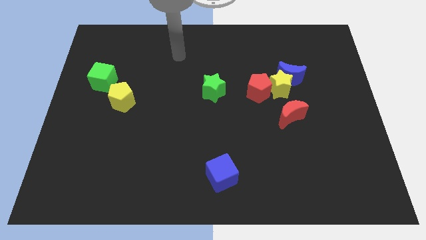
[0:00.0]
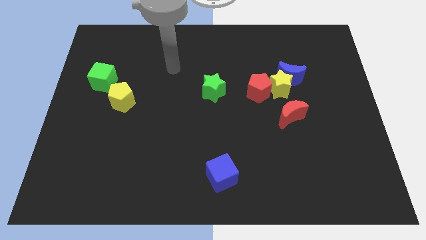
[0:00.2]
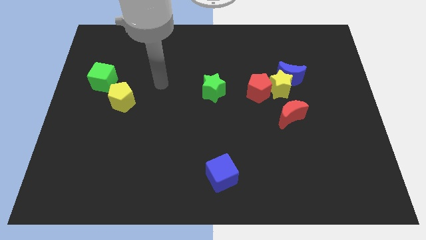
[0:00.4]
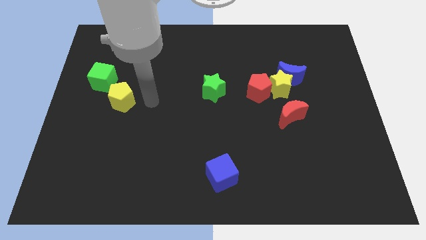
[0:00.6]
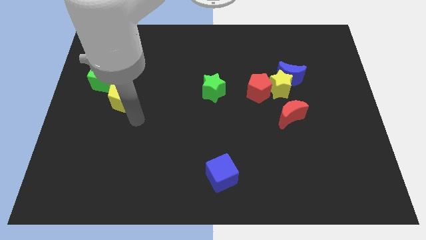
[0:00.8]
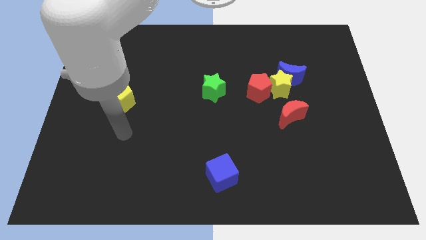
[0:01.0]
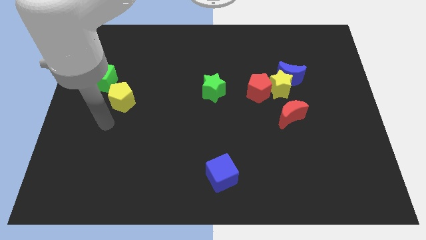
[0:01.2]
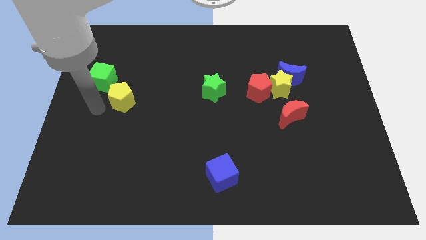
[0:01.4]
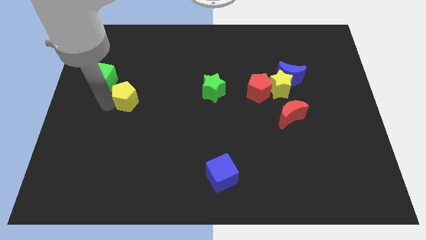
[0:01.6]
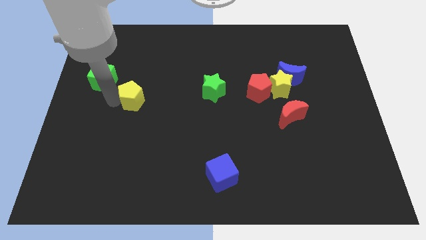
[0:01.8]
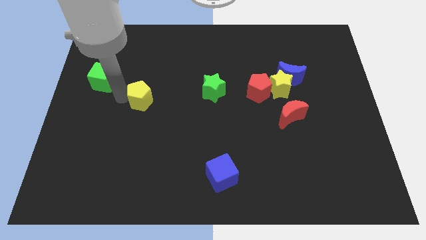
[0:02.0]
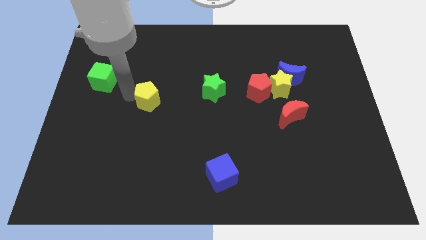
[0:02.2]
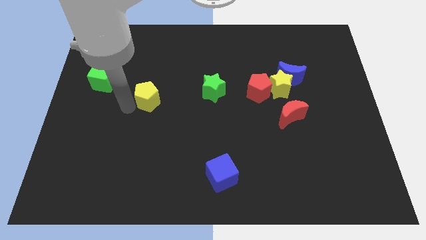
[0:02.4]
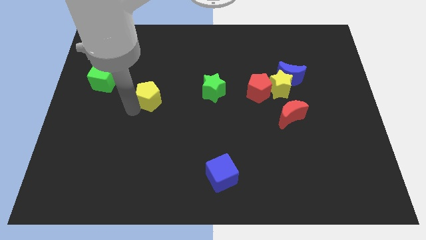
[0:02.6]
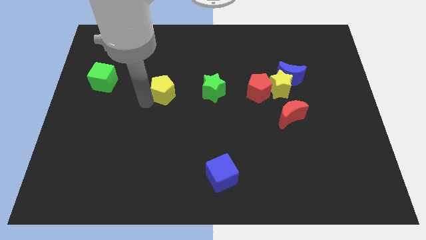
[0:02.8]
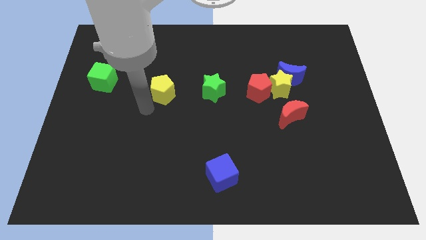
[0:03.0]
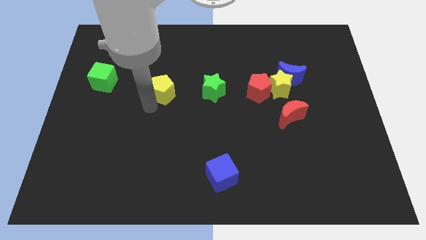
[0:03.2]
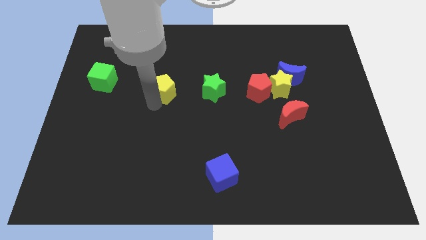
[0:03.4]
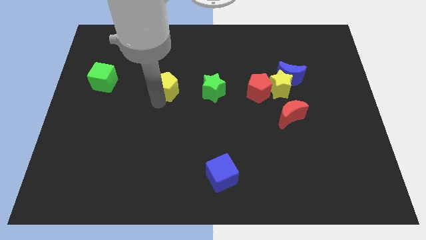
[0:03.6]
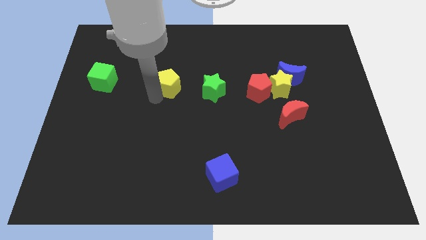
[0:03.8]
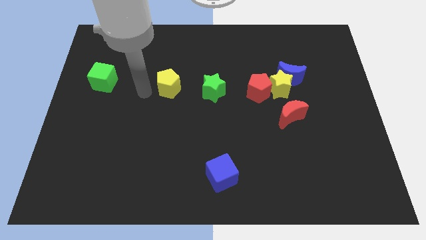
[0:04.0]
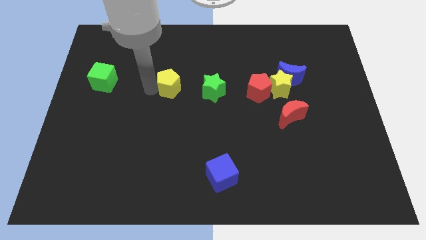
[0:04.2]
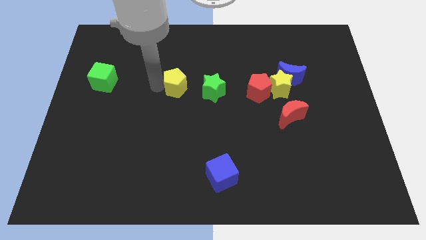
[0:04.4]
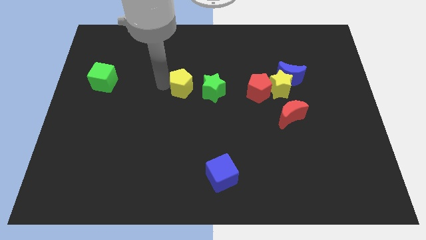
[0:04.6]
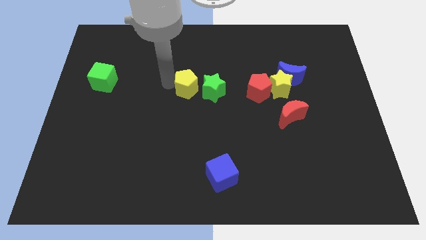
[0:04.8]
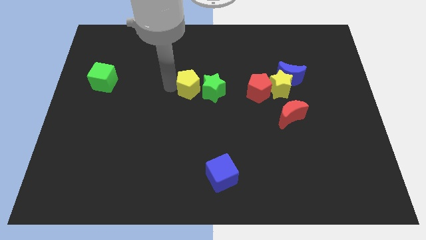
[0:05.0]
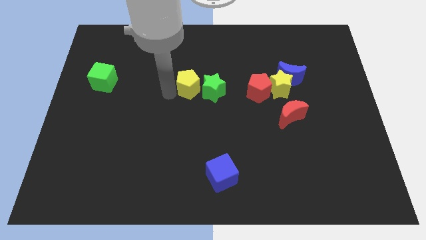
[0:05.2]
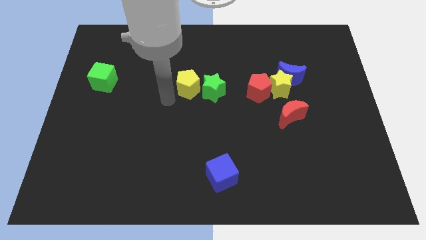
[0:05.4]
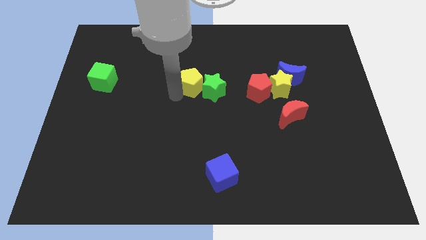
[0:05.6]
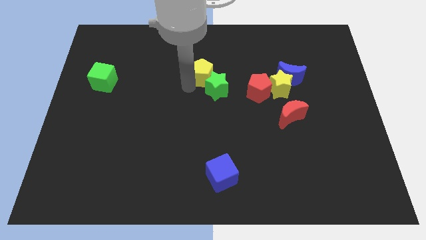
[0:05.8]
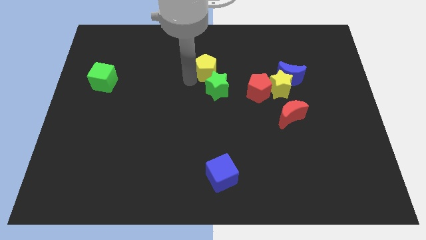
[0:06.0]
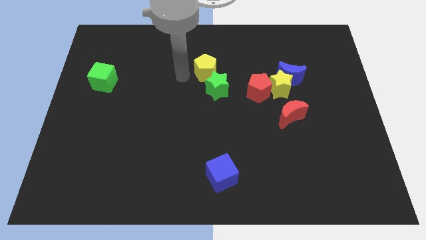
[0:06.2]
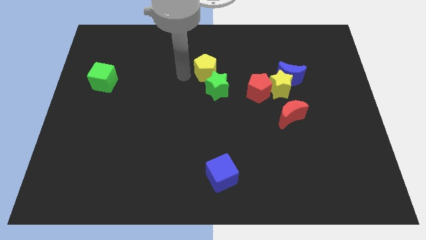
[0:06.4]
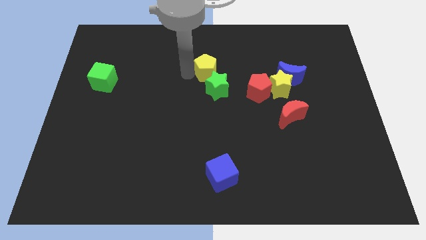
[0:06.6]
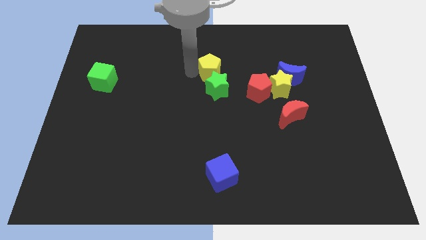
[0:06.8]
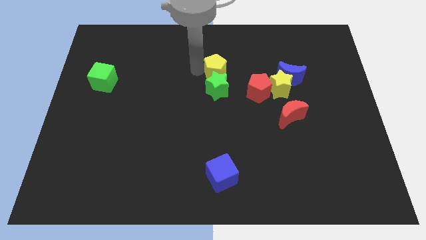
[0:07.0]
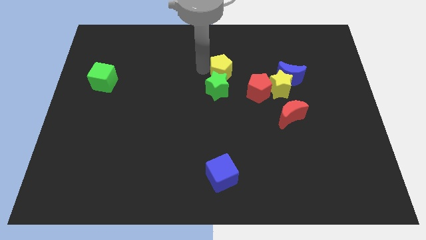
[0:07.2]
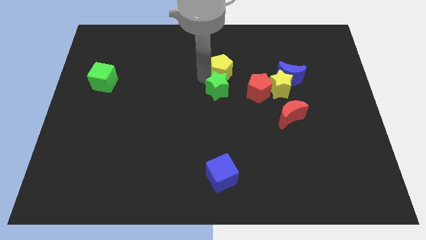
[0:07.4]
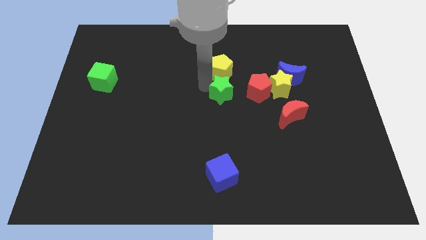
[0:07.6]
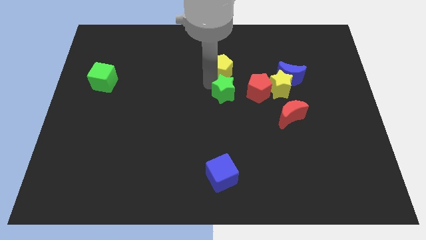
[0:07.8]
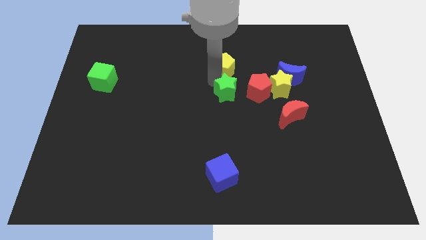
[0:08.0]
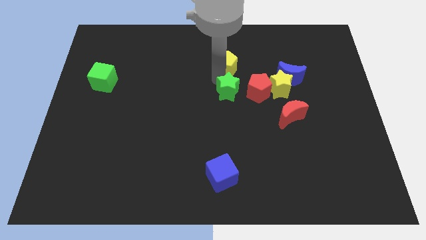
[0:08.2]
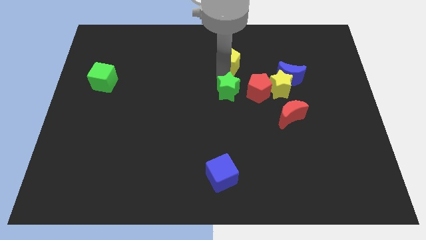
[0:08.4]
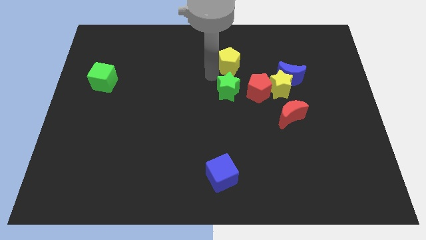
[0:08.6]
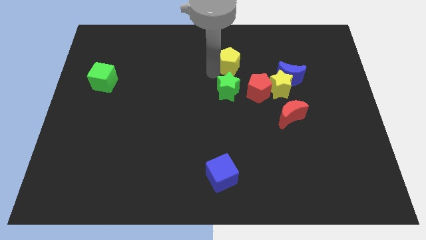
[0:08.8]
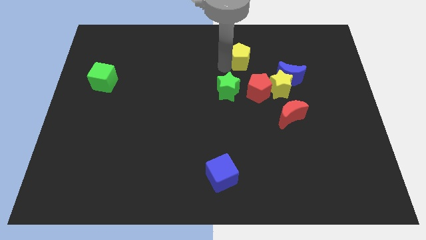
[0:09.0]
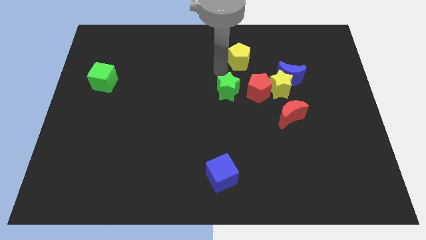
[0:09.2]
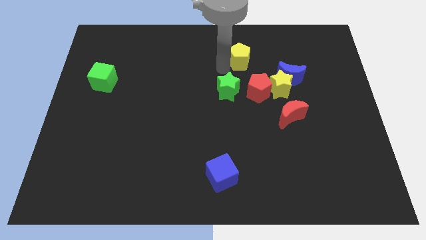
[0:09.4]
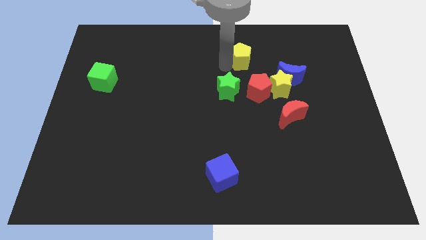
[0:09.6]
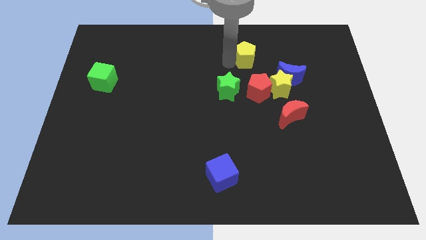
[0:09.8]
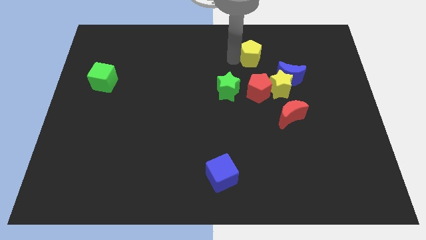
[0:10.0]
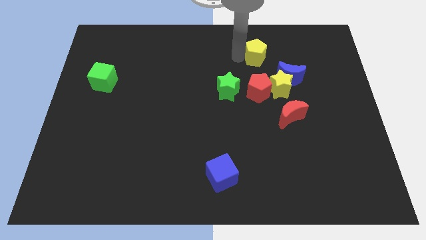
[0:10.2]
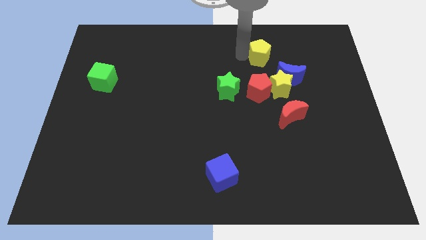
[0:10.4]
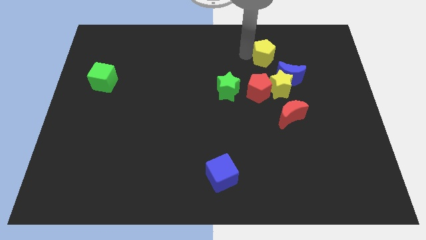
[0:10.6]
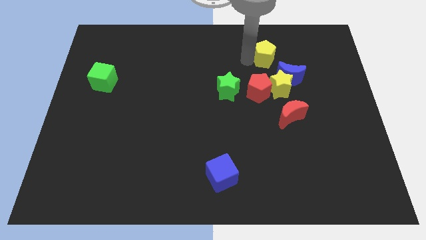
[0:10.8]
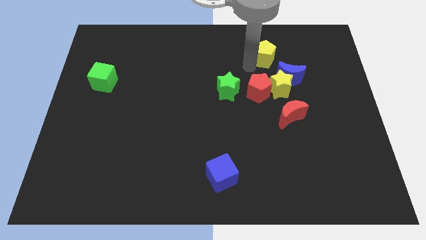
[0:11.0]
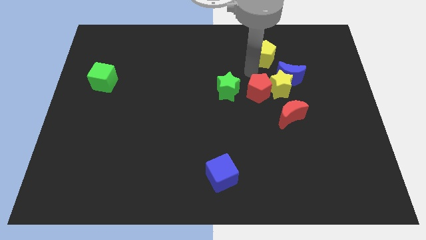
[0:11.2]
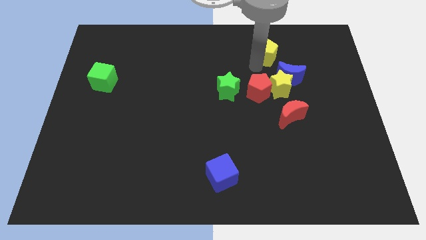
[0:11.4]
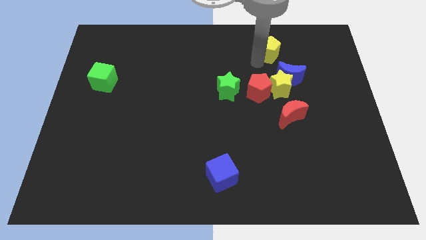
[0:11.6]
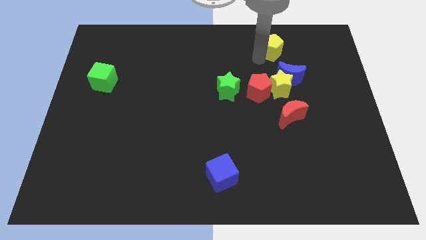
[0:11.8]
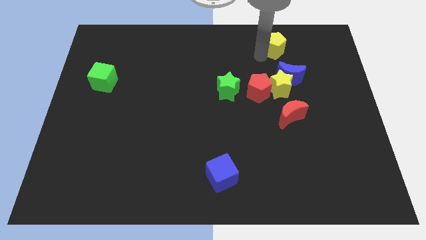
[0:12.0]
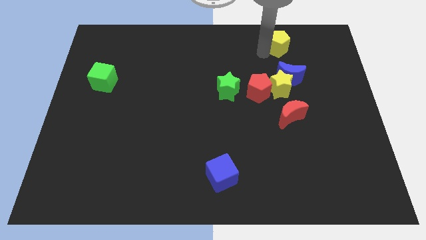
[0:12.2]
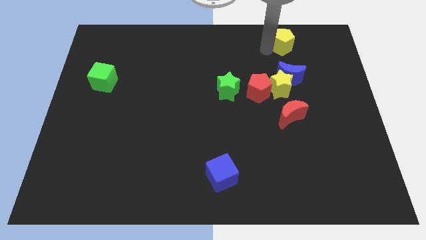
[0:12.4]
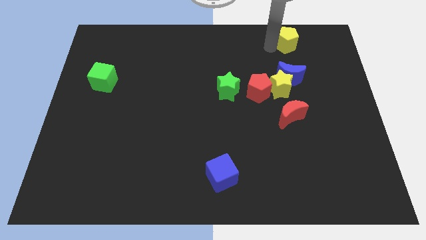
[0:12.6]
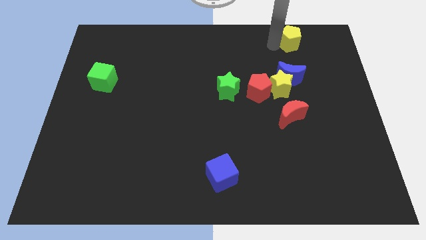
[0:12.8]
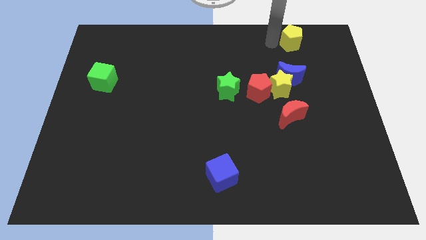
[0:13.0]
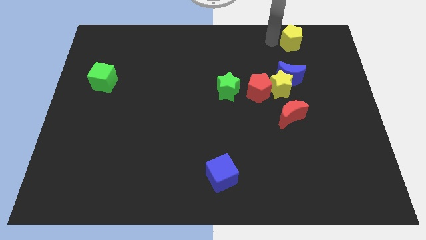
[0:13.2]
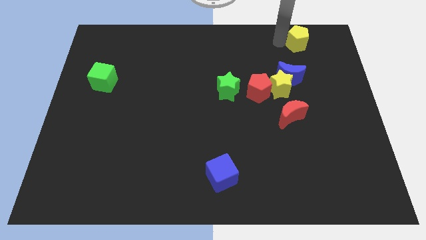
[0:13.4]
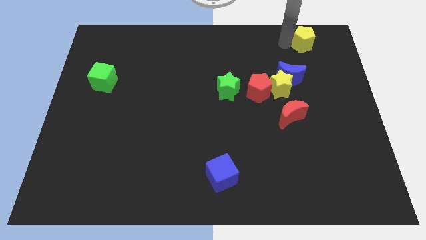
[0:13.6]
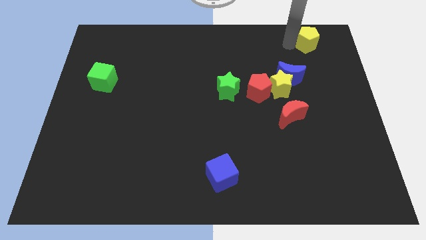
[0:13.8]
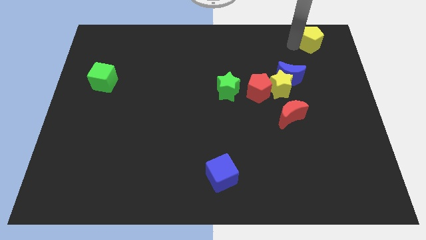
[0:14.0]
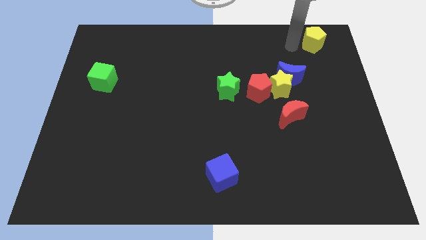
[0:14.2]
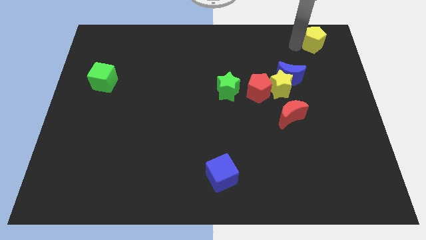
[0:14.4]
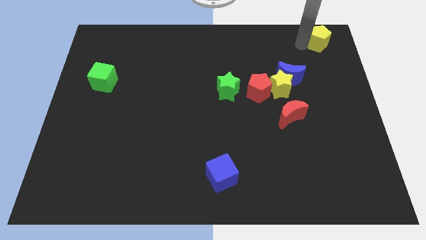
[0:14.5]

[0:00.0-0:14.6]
put the yellow pentagon to the top right of the board

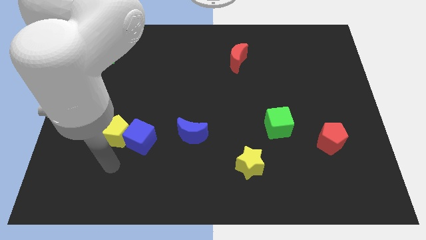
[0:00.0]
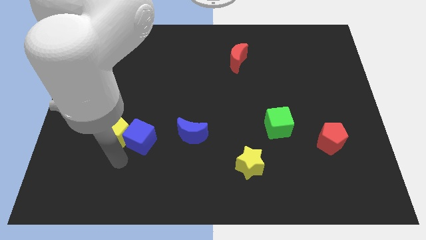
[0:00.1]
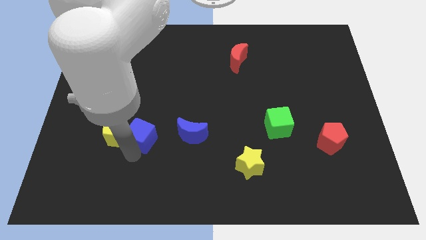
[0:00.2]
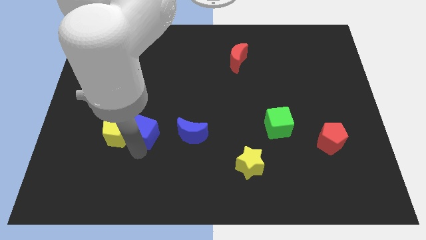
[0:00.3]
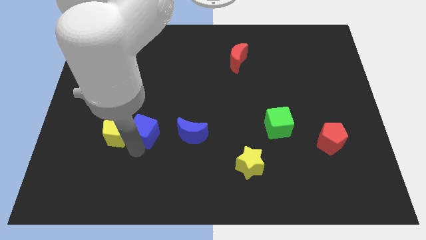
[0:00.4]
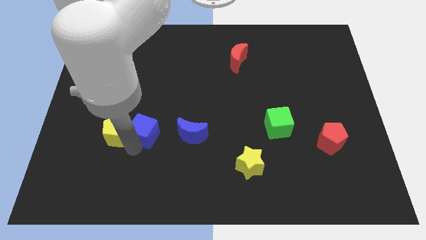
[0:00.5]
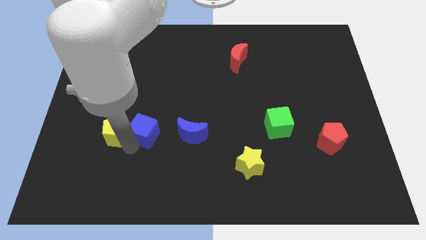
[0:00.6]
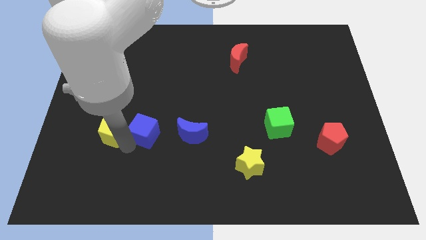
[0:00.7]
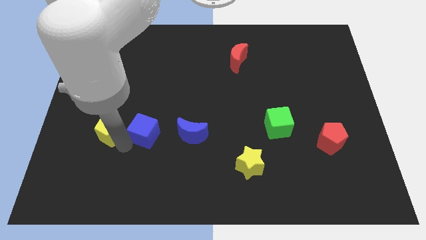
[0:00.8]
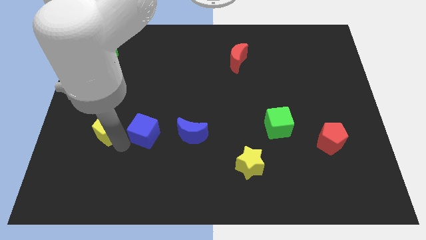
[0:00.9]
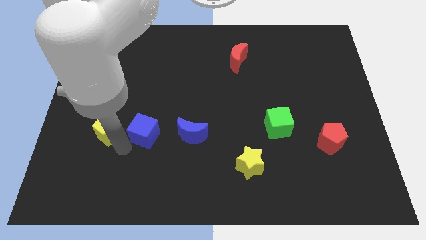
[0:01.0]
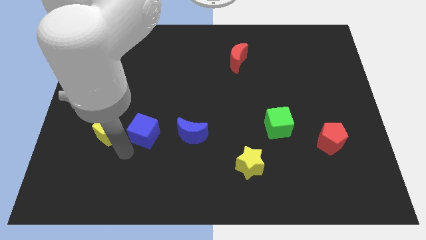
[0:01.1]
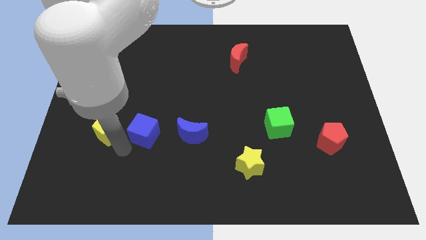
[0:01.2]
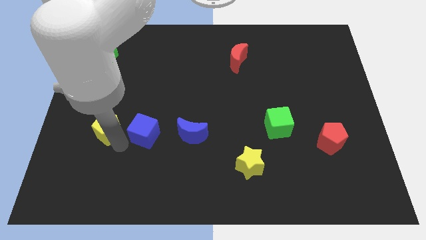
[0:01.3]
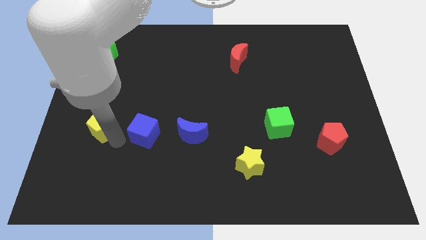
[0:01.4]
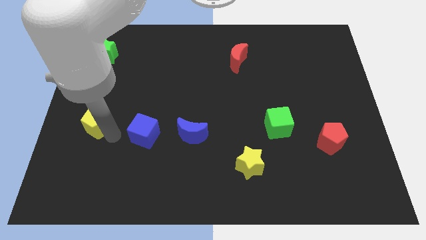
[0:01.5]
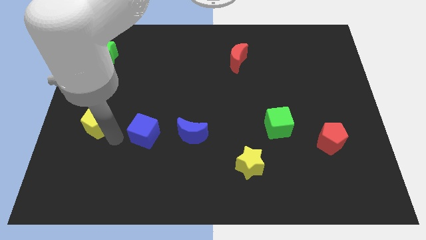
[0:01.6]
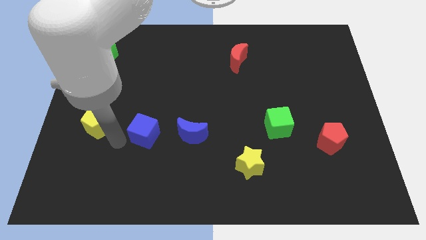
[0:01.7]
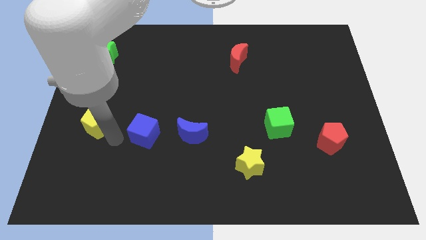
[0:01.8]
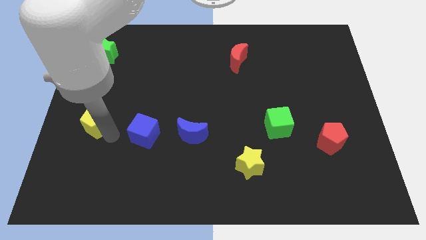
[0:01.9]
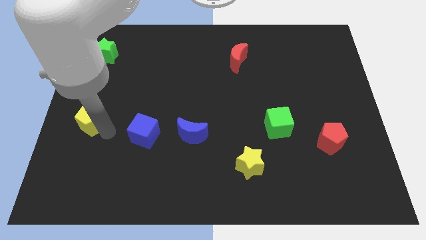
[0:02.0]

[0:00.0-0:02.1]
push the yellow pentagon to the left side of the board
